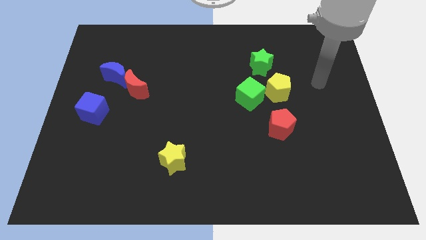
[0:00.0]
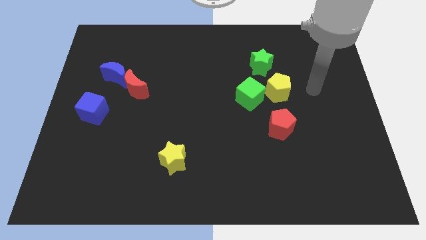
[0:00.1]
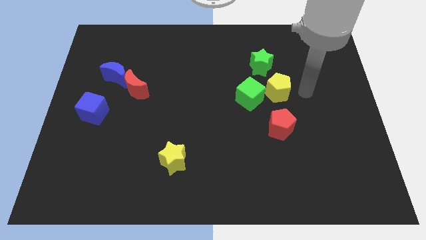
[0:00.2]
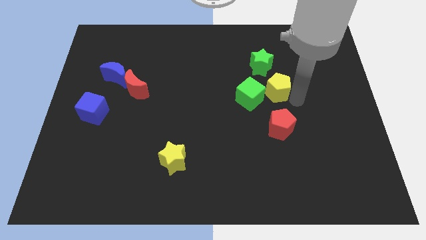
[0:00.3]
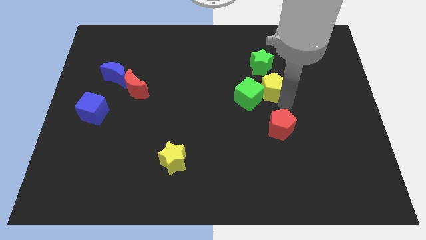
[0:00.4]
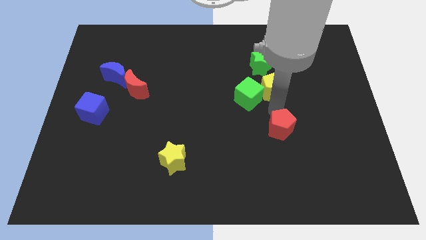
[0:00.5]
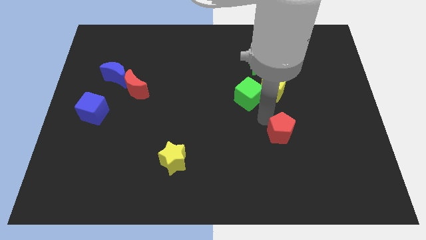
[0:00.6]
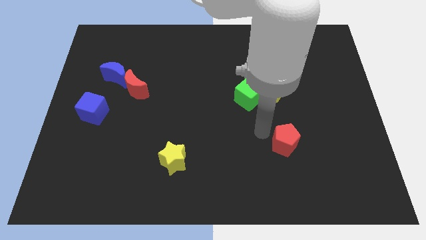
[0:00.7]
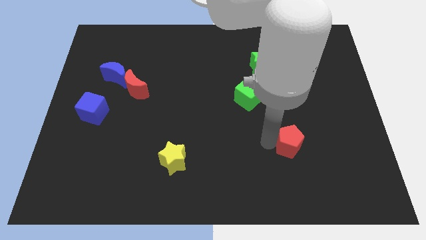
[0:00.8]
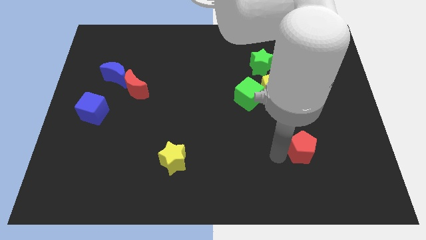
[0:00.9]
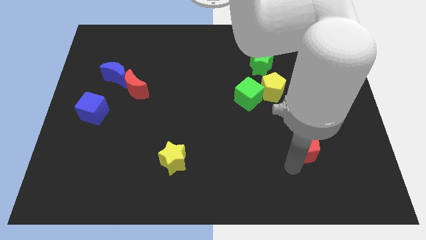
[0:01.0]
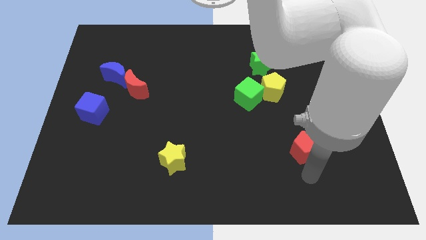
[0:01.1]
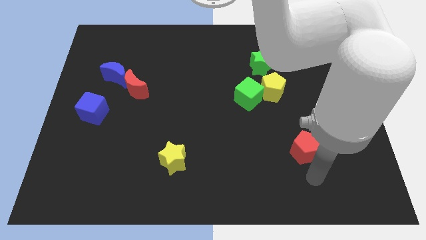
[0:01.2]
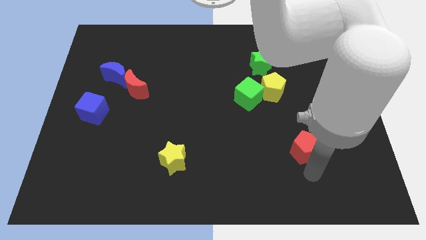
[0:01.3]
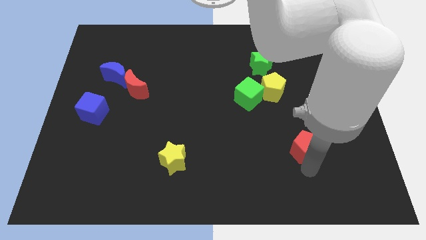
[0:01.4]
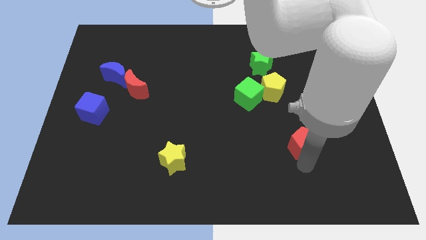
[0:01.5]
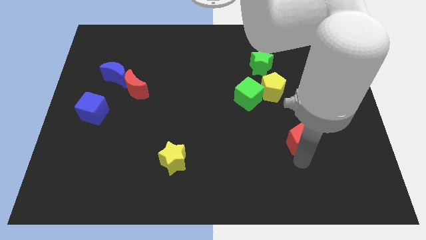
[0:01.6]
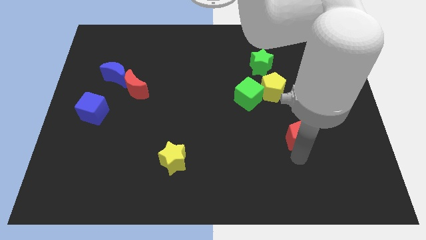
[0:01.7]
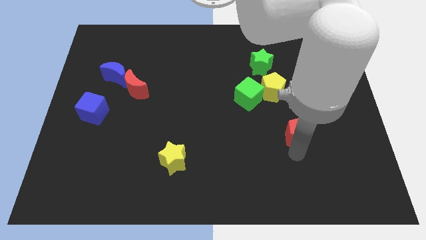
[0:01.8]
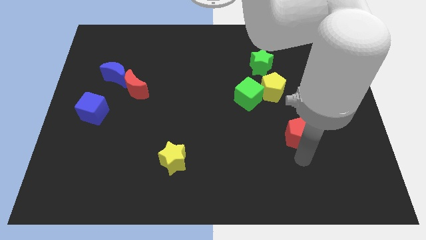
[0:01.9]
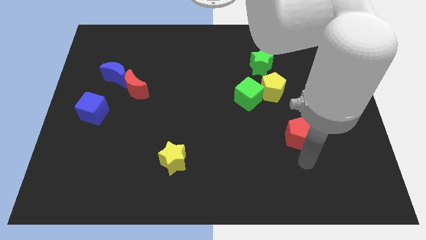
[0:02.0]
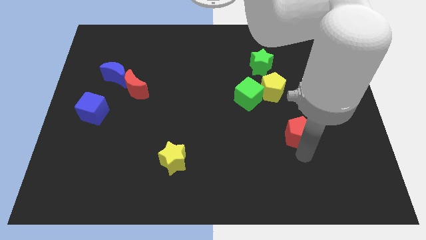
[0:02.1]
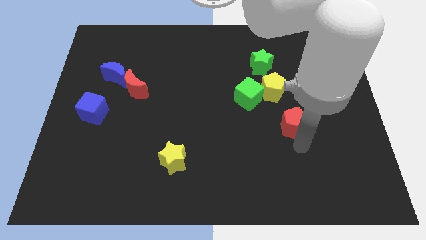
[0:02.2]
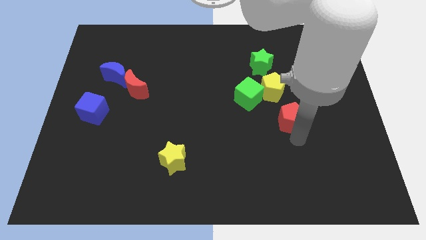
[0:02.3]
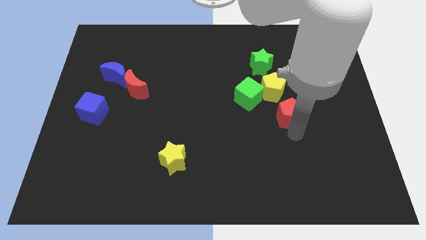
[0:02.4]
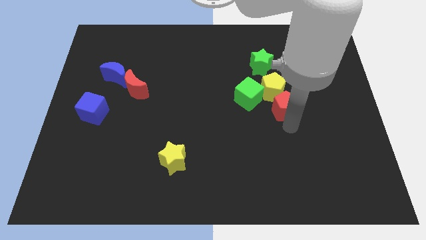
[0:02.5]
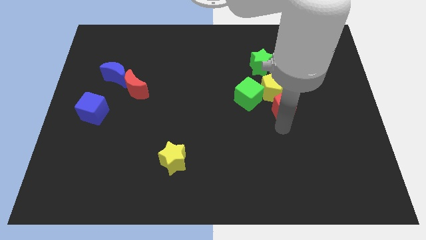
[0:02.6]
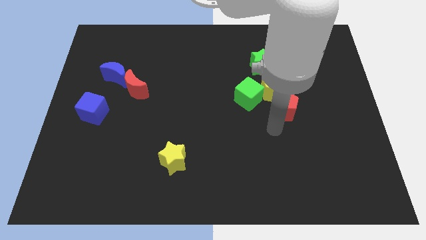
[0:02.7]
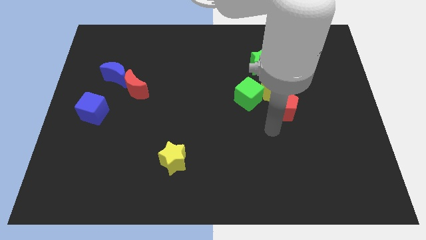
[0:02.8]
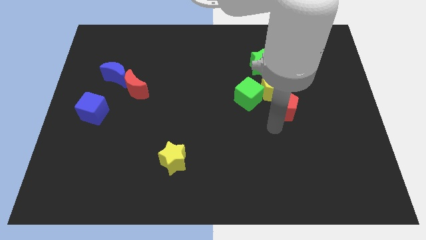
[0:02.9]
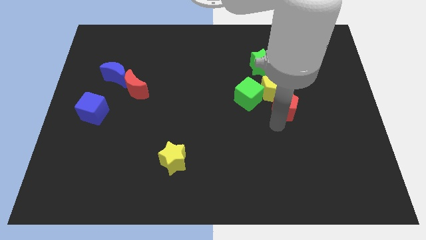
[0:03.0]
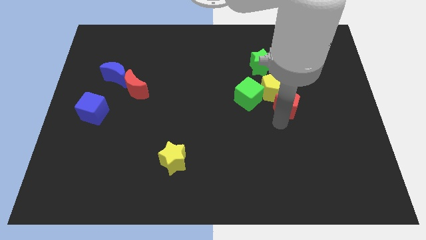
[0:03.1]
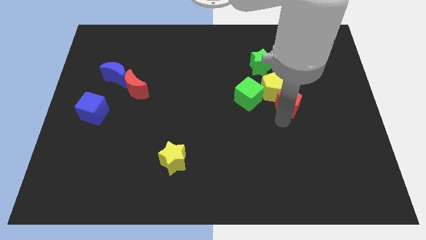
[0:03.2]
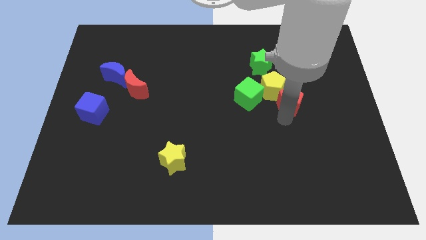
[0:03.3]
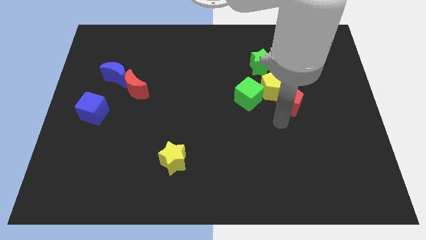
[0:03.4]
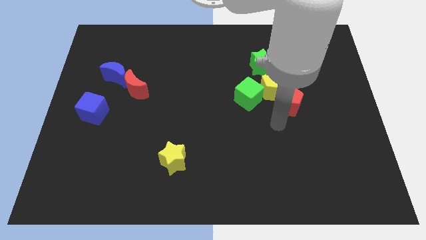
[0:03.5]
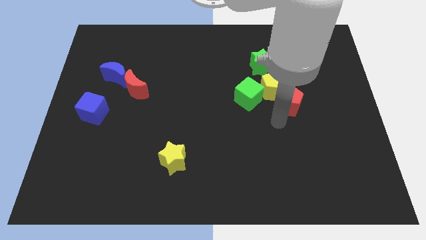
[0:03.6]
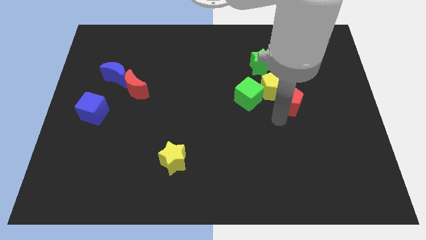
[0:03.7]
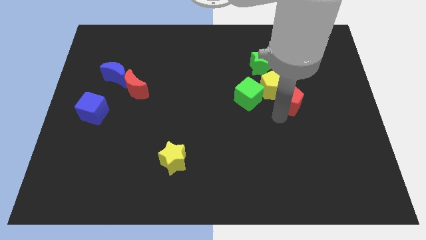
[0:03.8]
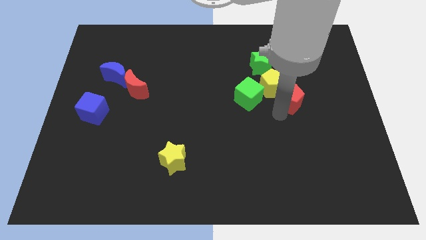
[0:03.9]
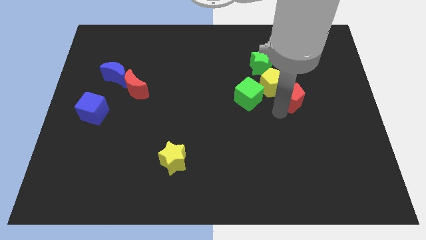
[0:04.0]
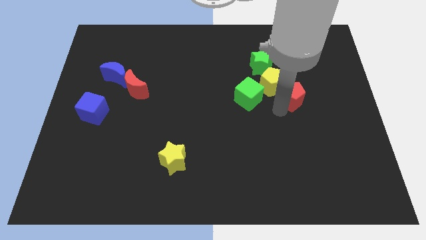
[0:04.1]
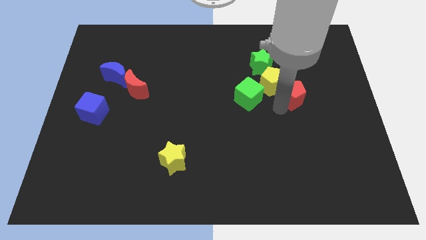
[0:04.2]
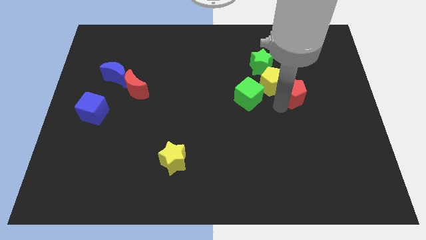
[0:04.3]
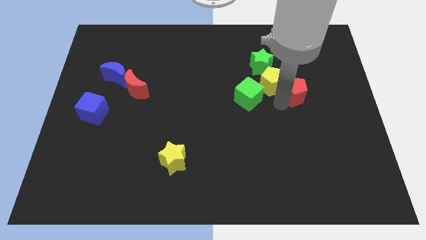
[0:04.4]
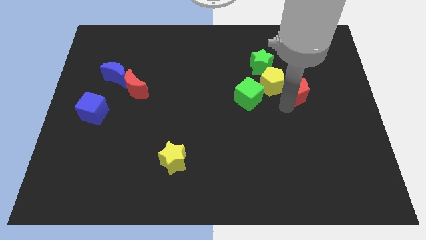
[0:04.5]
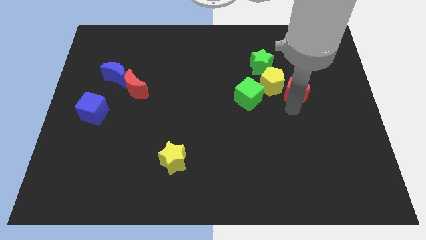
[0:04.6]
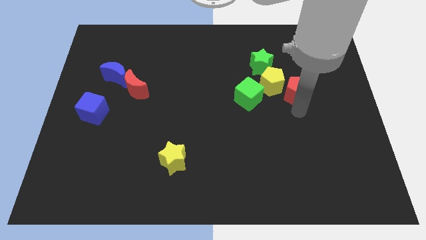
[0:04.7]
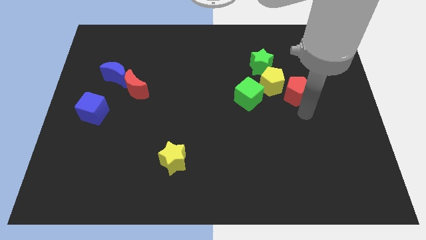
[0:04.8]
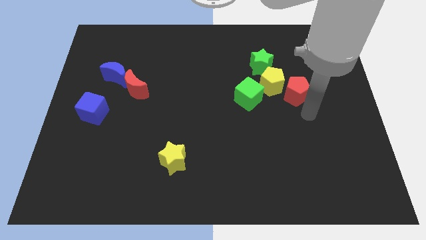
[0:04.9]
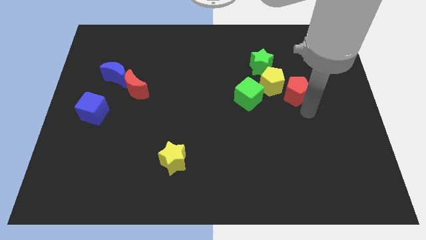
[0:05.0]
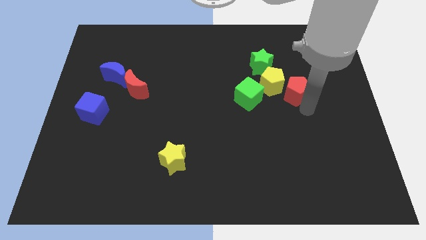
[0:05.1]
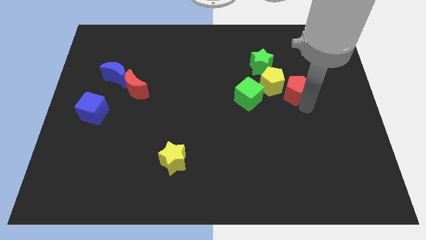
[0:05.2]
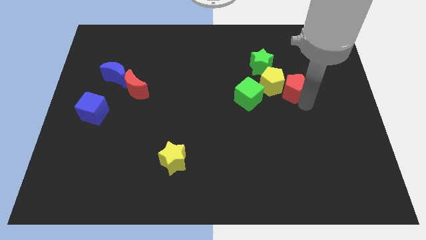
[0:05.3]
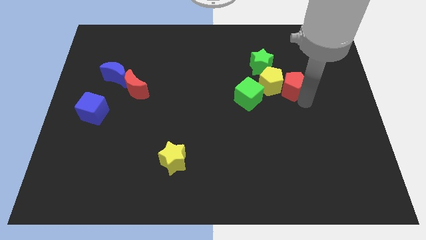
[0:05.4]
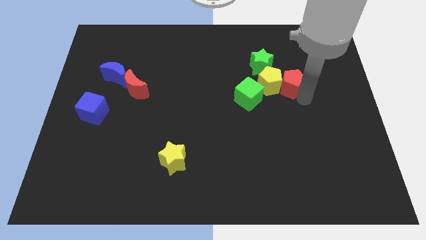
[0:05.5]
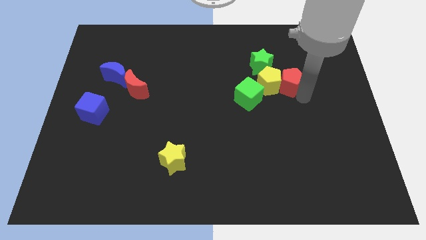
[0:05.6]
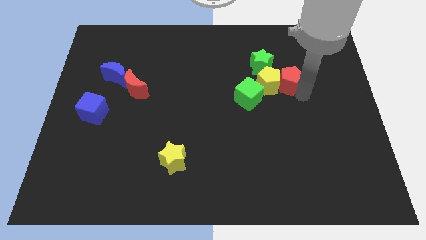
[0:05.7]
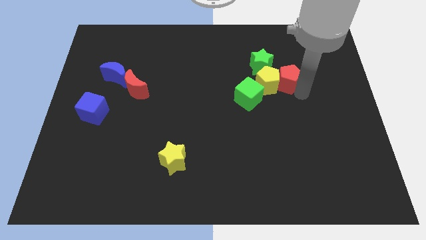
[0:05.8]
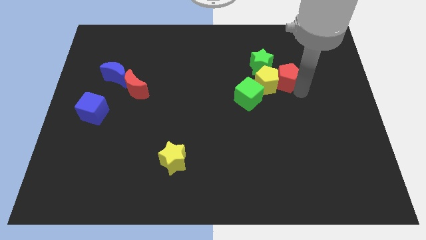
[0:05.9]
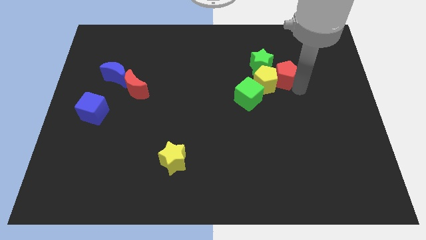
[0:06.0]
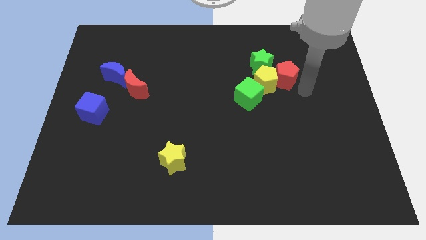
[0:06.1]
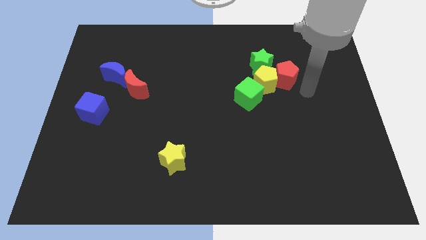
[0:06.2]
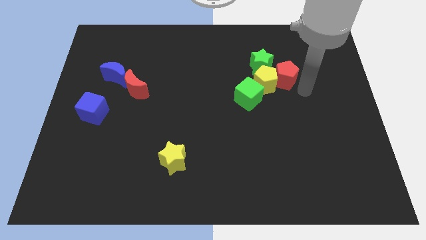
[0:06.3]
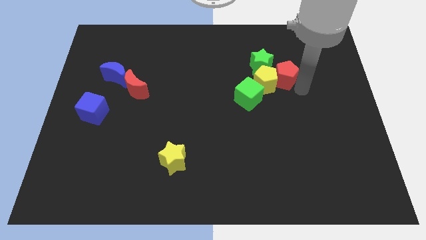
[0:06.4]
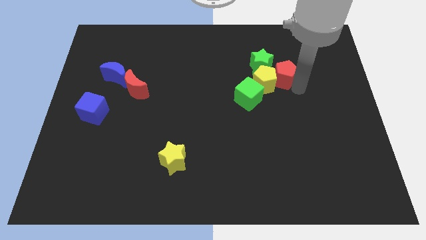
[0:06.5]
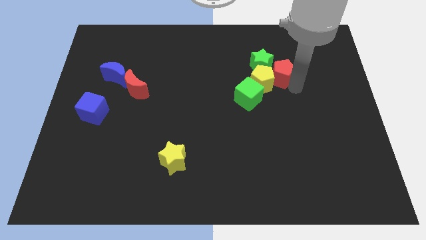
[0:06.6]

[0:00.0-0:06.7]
push the red pentagon next to the green star

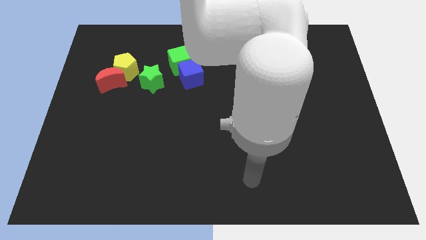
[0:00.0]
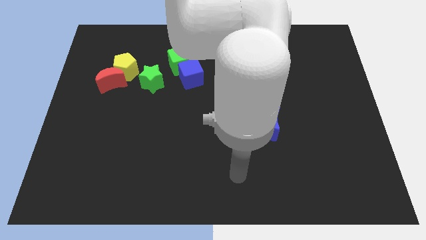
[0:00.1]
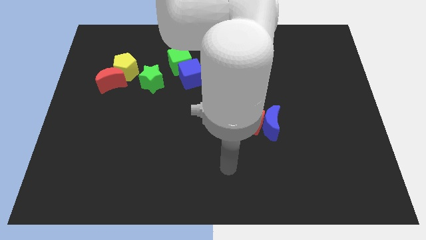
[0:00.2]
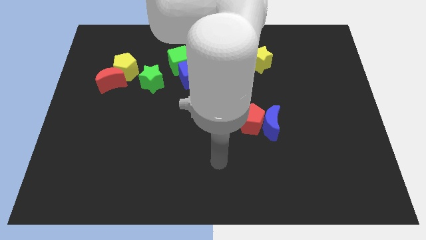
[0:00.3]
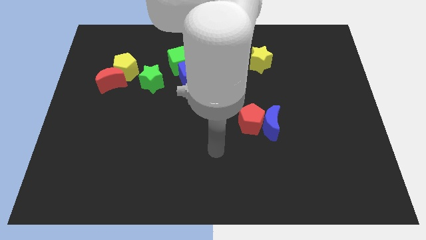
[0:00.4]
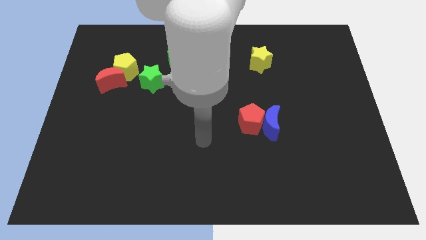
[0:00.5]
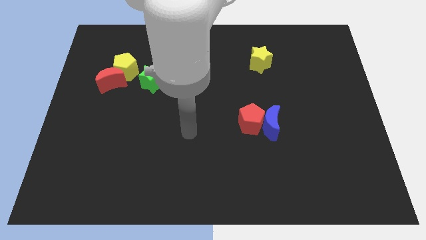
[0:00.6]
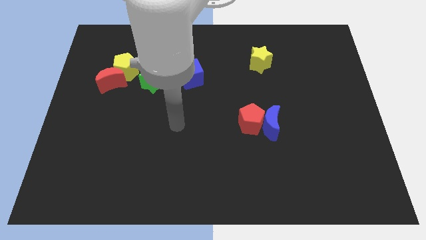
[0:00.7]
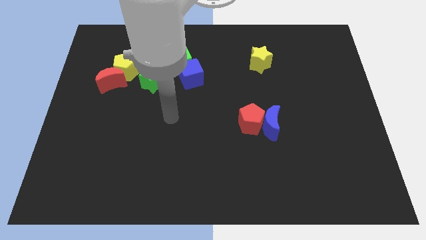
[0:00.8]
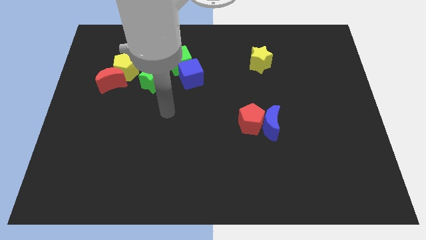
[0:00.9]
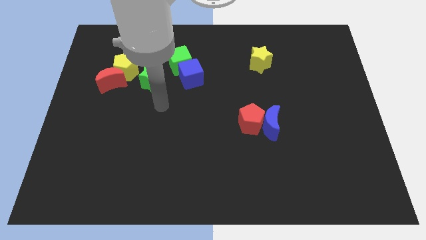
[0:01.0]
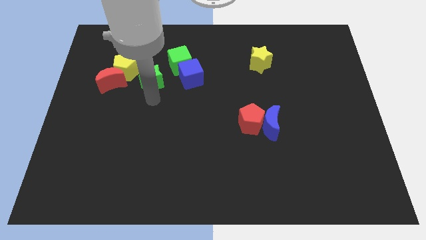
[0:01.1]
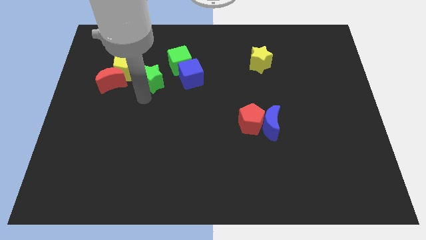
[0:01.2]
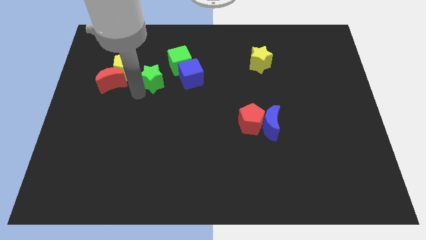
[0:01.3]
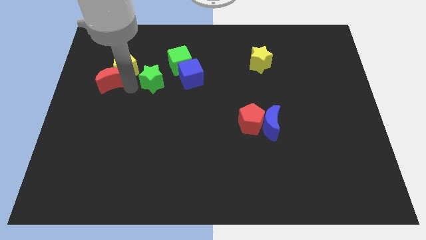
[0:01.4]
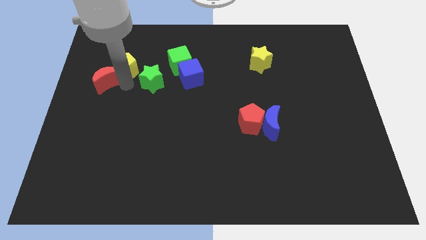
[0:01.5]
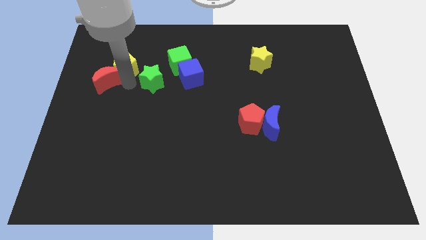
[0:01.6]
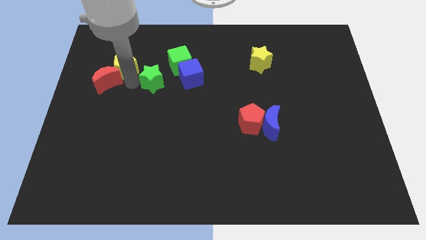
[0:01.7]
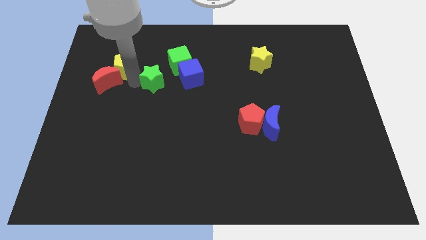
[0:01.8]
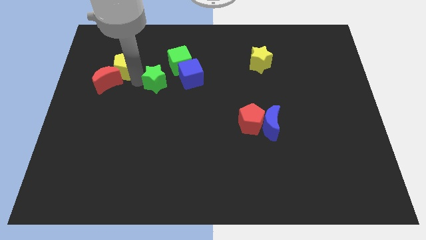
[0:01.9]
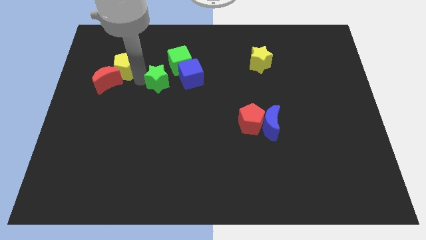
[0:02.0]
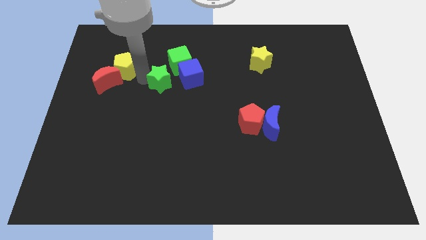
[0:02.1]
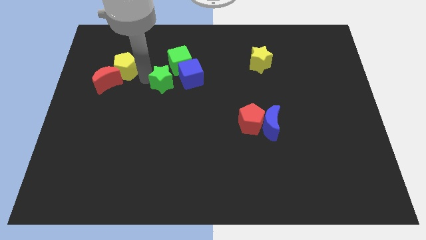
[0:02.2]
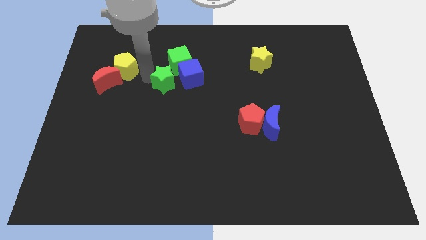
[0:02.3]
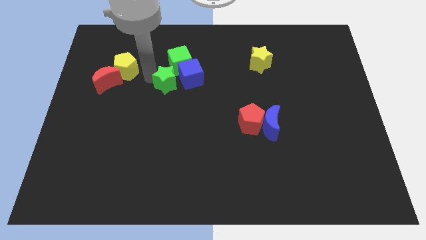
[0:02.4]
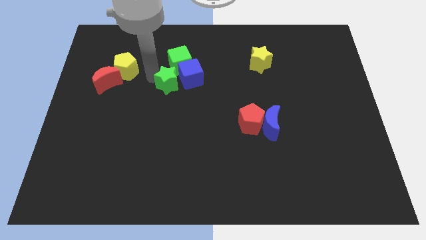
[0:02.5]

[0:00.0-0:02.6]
push the green star towards the blue cube
